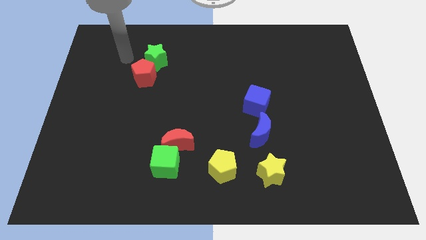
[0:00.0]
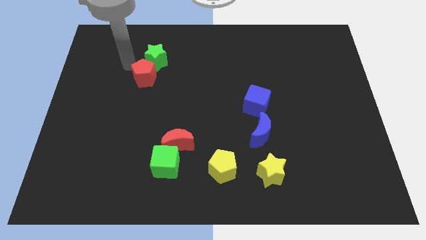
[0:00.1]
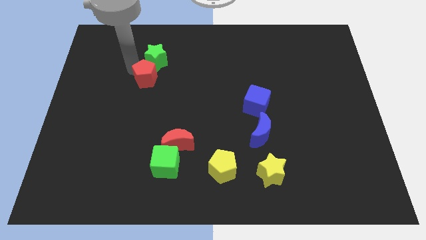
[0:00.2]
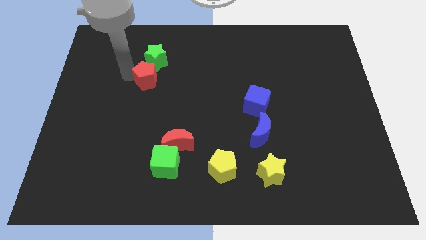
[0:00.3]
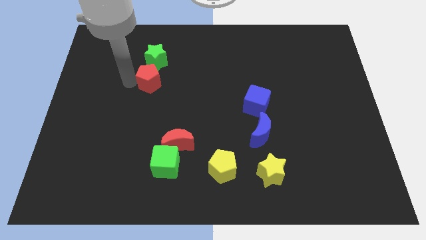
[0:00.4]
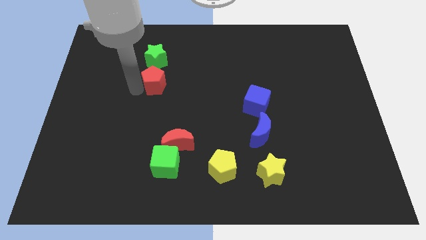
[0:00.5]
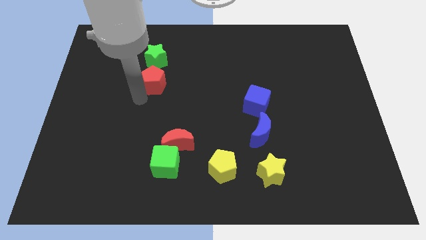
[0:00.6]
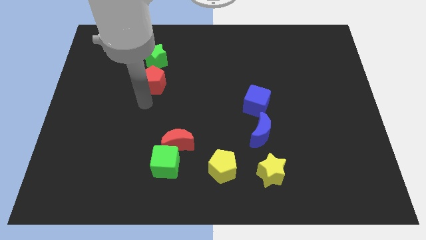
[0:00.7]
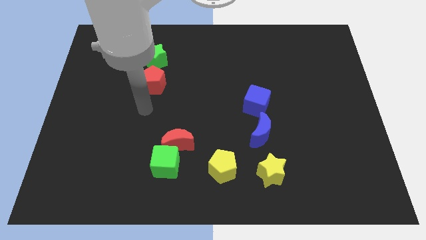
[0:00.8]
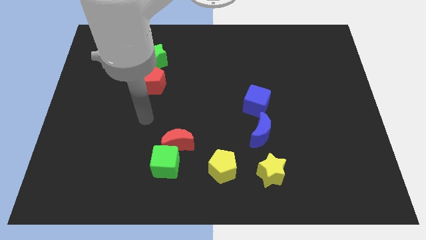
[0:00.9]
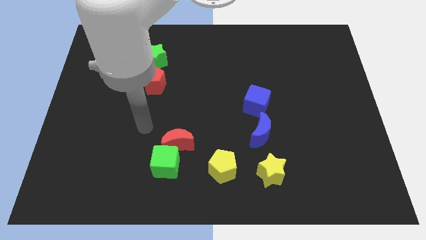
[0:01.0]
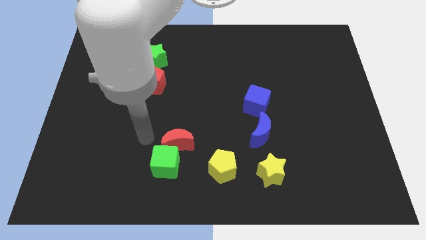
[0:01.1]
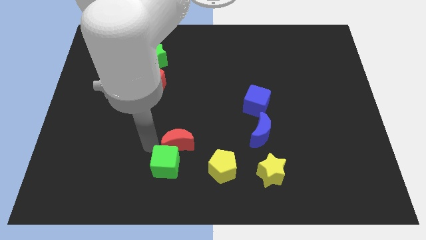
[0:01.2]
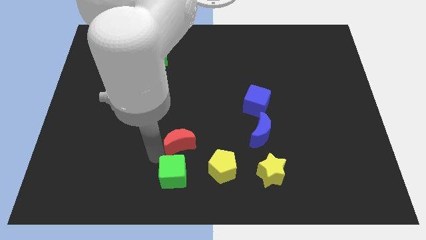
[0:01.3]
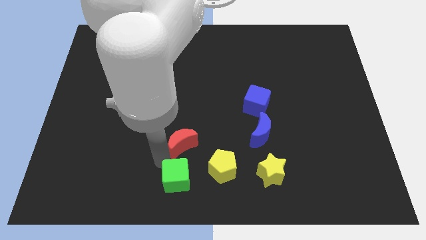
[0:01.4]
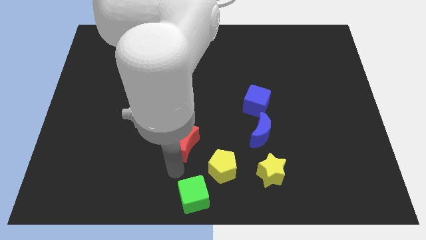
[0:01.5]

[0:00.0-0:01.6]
move the red moon away from the green cube

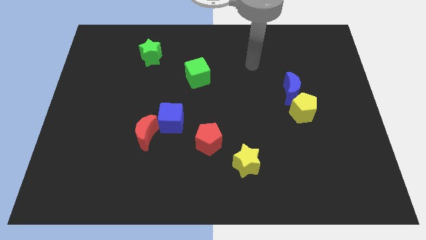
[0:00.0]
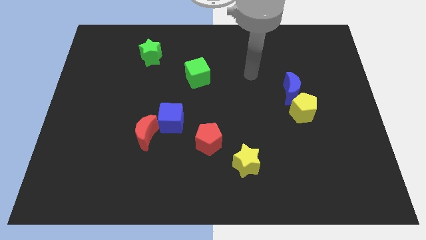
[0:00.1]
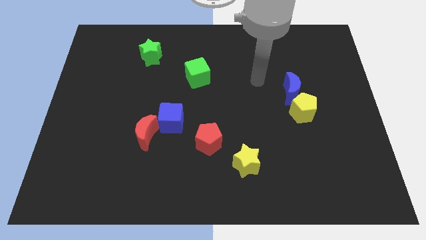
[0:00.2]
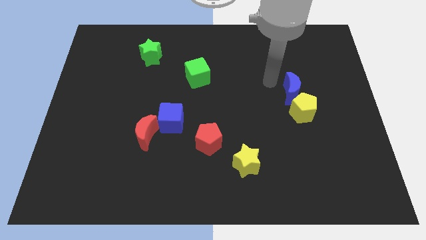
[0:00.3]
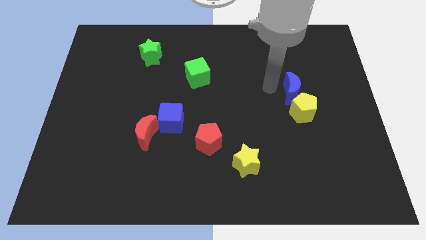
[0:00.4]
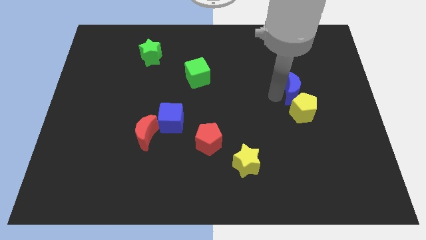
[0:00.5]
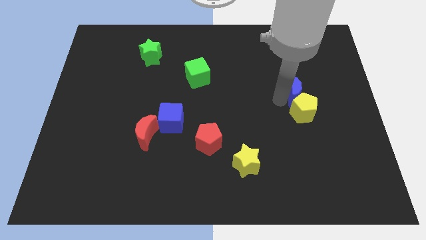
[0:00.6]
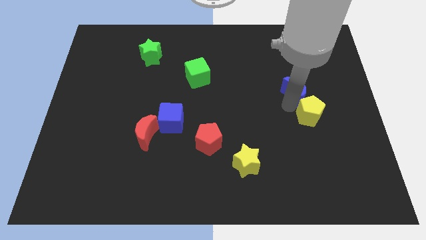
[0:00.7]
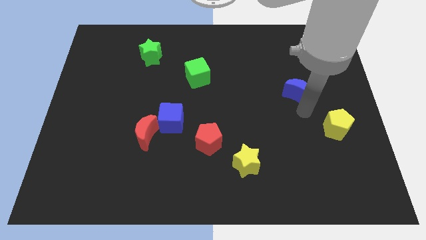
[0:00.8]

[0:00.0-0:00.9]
move the blue moon away from the yellow pentagon

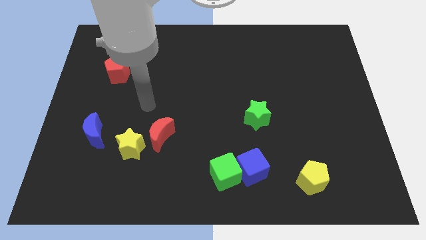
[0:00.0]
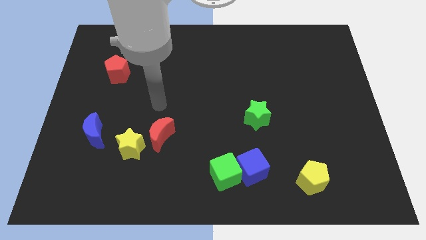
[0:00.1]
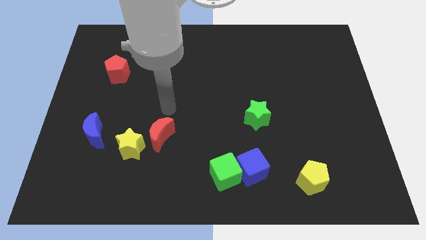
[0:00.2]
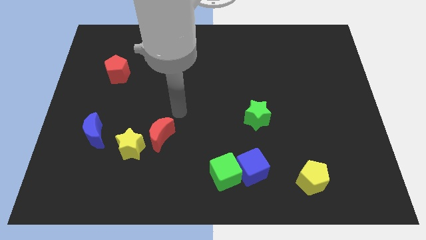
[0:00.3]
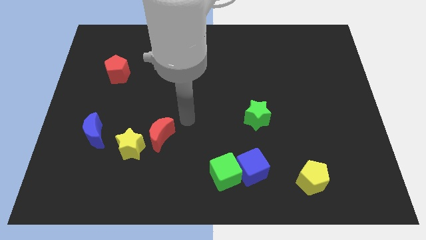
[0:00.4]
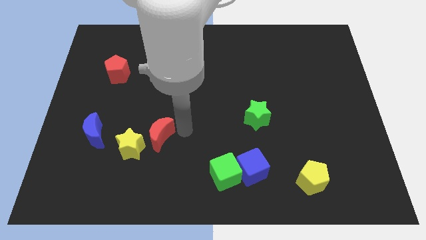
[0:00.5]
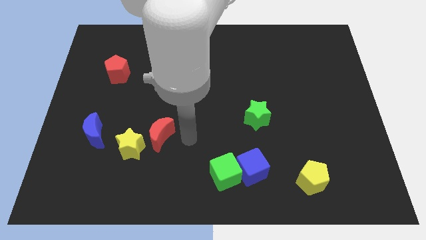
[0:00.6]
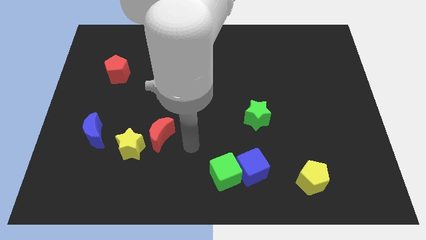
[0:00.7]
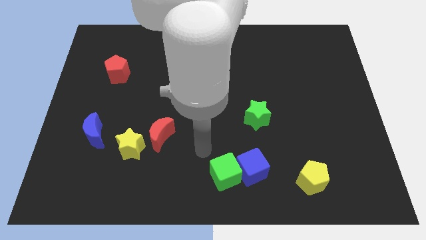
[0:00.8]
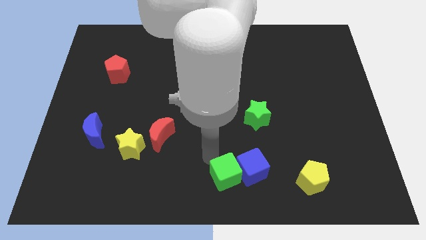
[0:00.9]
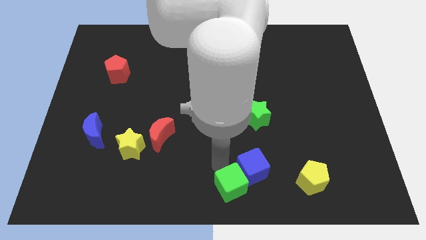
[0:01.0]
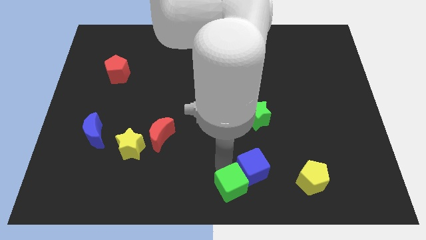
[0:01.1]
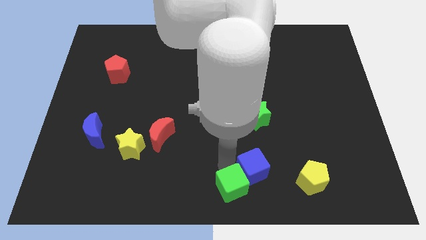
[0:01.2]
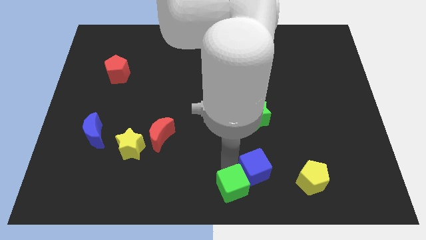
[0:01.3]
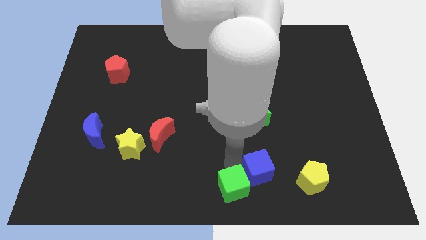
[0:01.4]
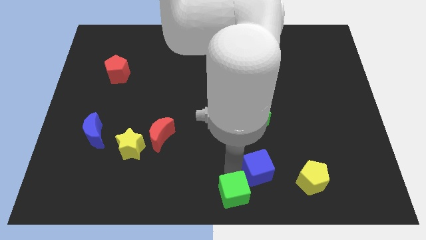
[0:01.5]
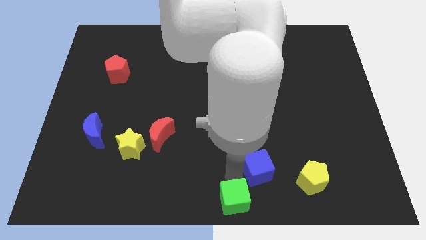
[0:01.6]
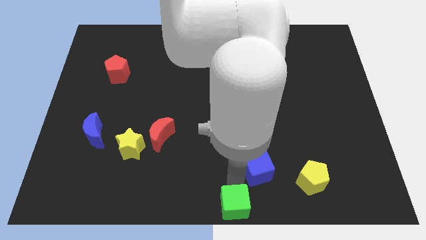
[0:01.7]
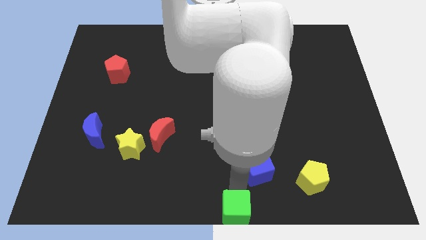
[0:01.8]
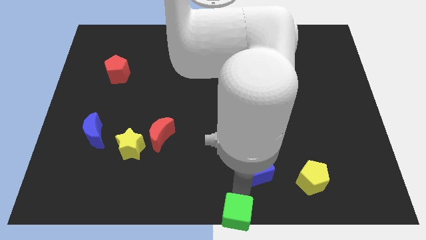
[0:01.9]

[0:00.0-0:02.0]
pull the blue cube apart from the green cube

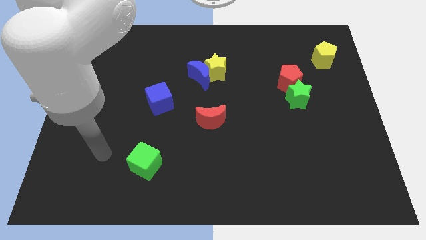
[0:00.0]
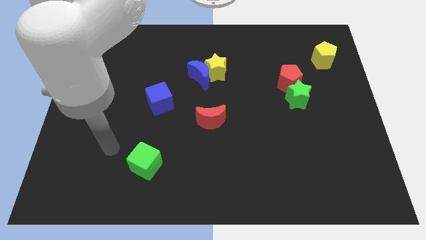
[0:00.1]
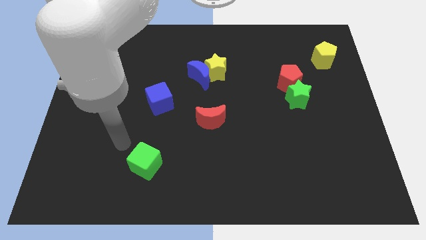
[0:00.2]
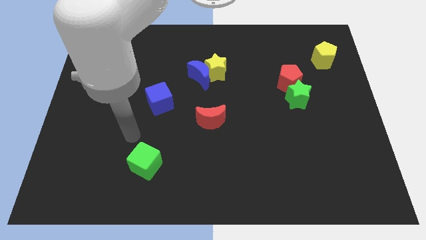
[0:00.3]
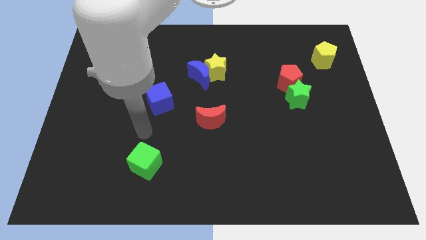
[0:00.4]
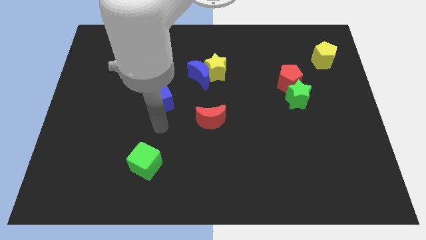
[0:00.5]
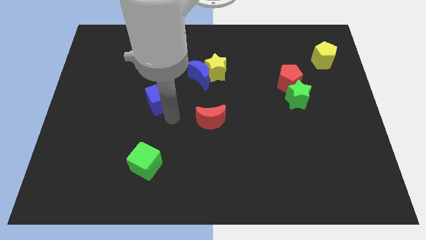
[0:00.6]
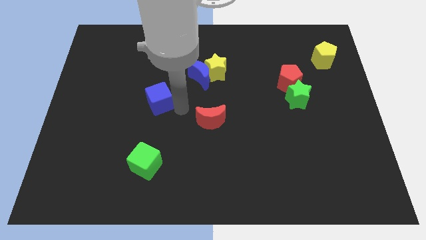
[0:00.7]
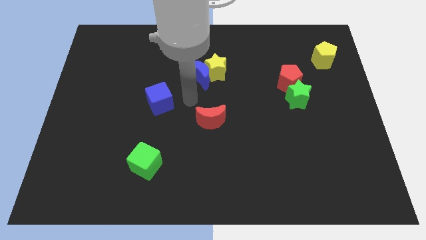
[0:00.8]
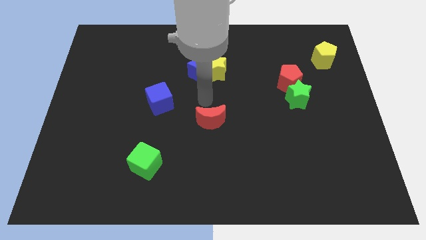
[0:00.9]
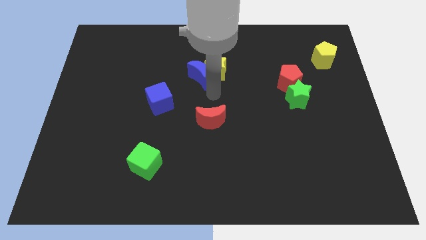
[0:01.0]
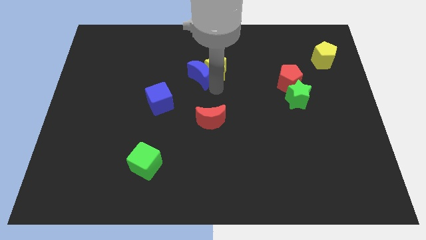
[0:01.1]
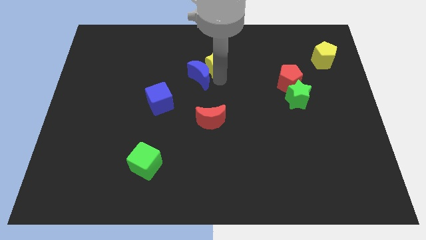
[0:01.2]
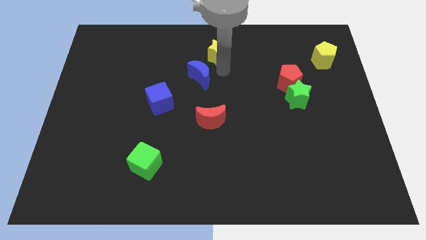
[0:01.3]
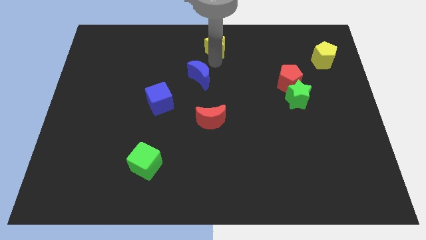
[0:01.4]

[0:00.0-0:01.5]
move the blue moon away from the yellow star

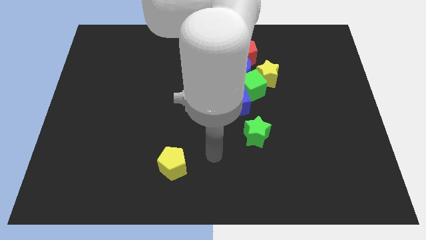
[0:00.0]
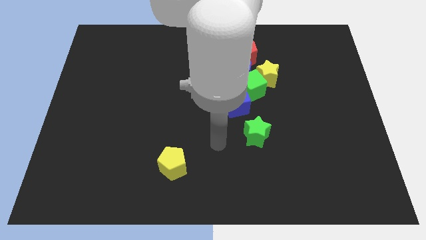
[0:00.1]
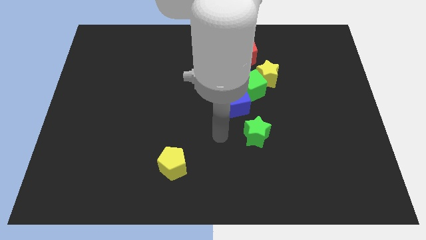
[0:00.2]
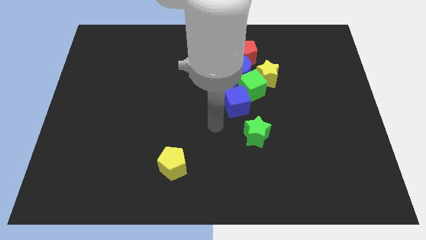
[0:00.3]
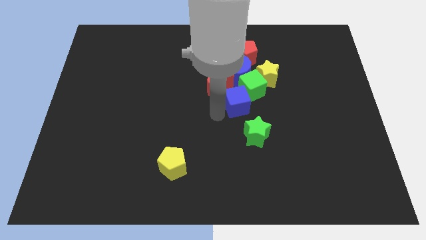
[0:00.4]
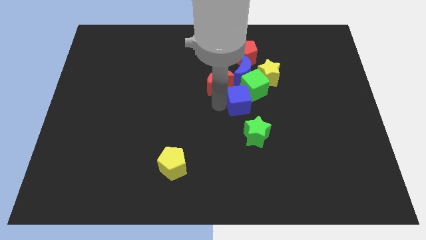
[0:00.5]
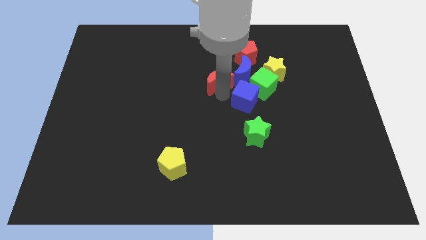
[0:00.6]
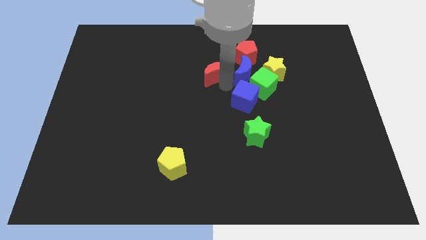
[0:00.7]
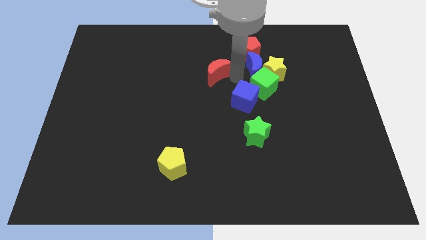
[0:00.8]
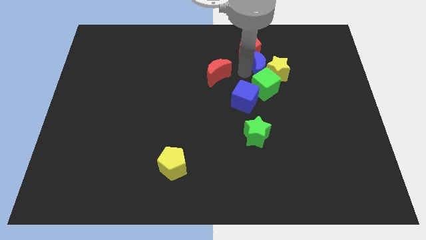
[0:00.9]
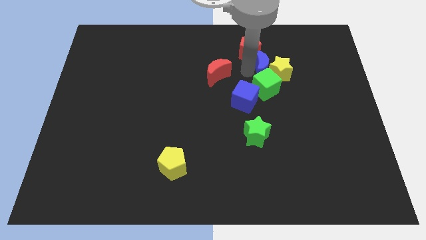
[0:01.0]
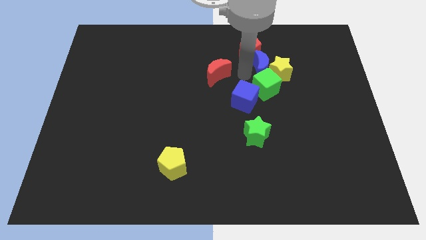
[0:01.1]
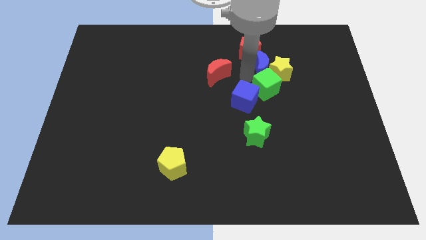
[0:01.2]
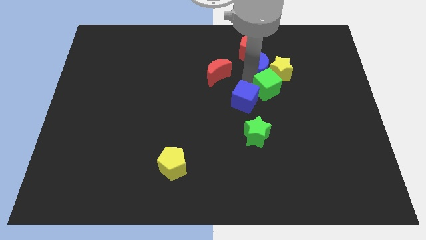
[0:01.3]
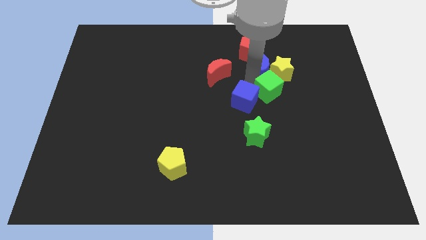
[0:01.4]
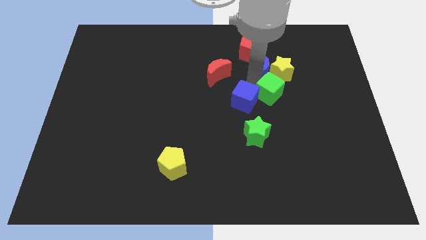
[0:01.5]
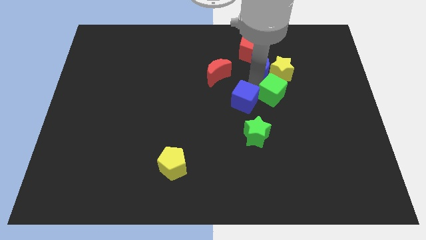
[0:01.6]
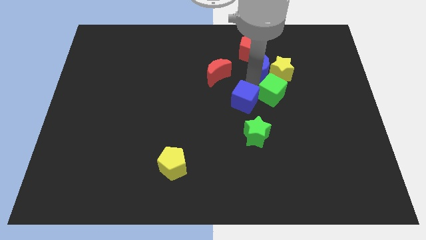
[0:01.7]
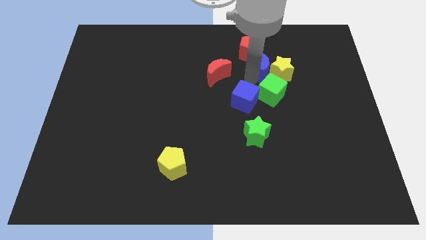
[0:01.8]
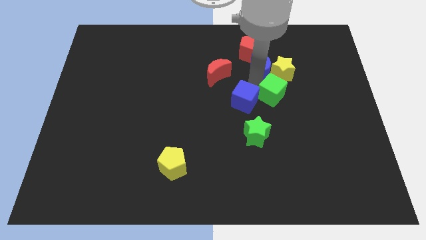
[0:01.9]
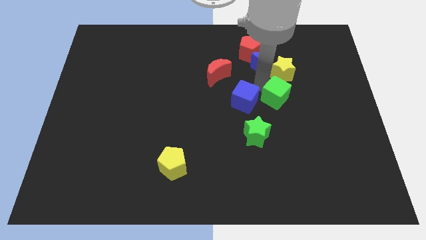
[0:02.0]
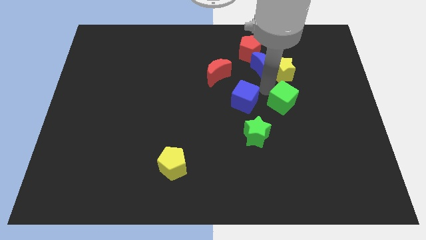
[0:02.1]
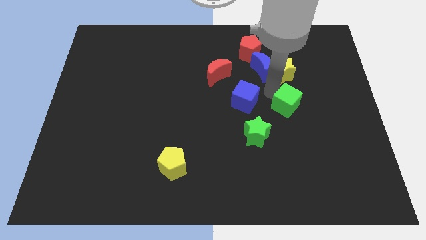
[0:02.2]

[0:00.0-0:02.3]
move the green cube away from the group

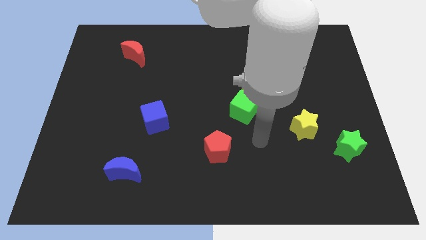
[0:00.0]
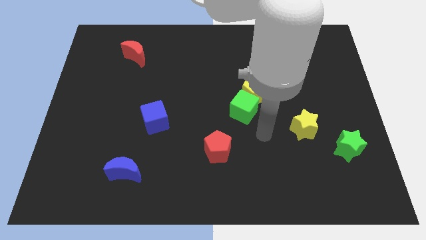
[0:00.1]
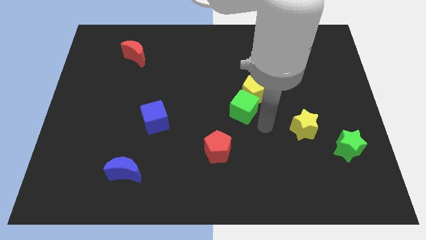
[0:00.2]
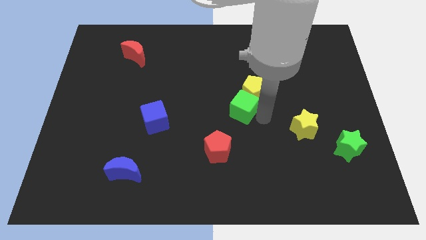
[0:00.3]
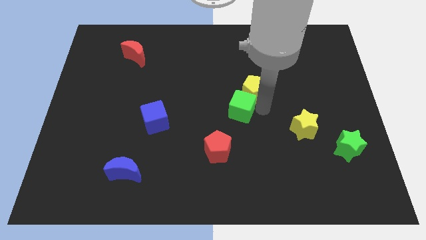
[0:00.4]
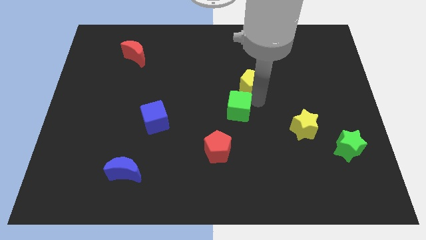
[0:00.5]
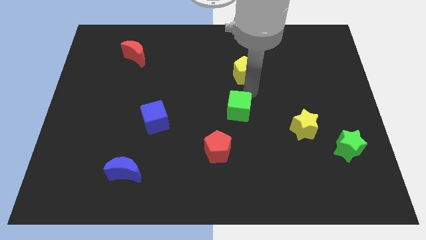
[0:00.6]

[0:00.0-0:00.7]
move the green cube away from the yellow pentagon

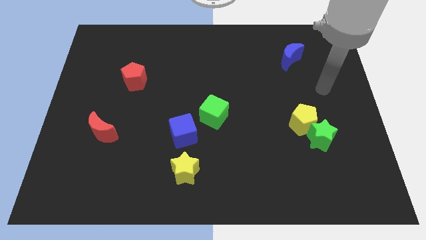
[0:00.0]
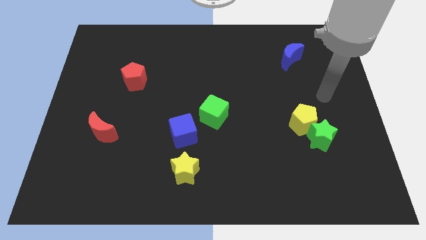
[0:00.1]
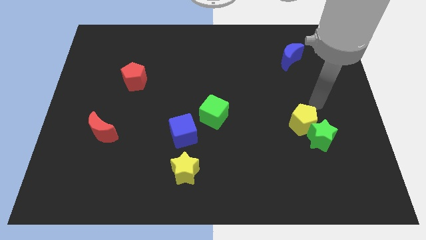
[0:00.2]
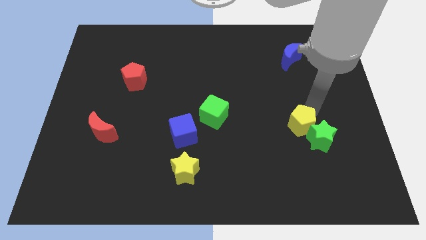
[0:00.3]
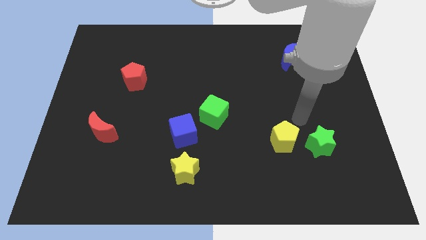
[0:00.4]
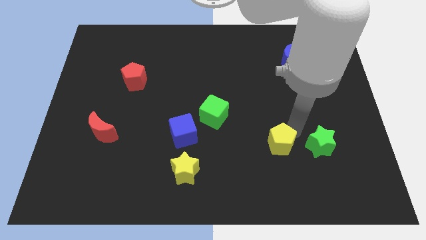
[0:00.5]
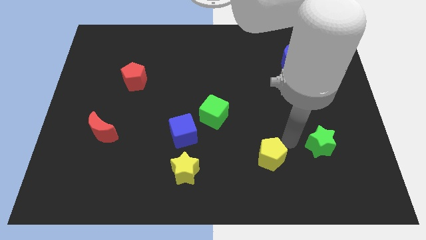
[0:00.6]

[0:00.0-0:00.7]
pull the green star apart from the yellow pentagon
